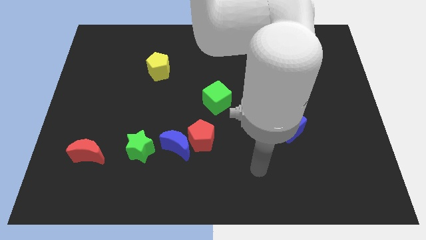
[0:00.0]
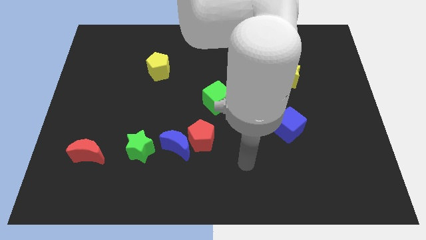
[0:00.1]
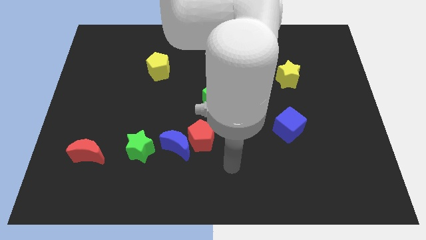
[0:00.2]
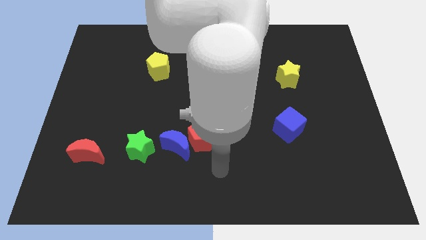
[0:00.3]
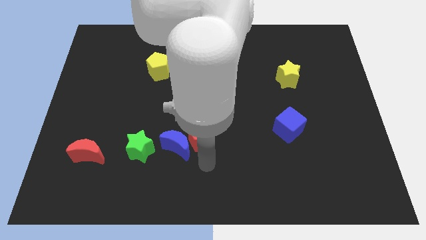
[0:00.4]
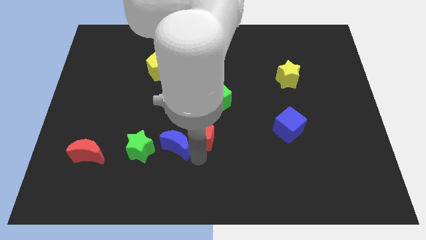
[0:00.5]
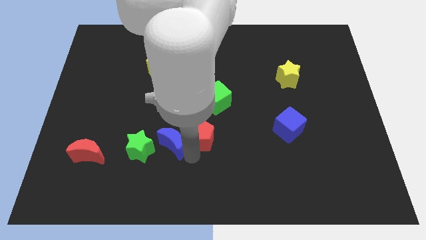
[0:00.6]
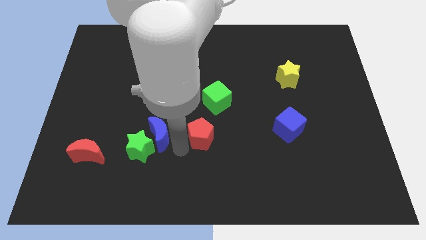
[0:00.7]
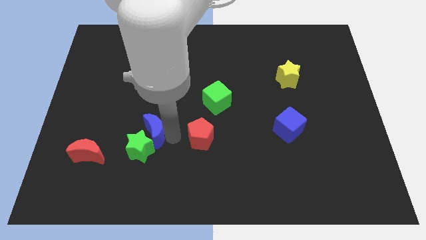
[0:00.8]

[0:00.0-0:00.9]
pull the red pentagon apart from the blue moon

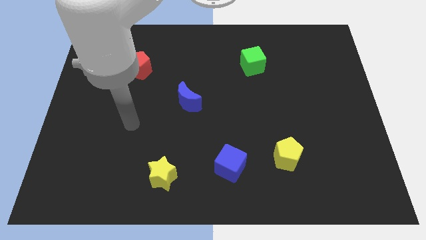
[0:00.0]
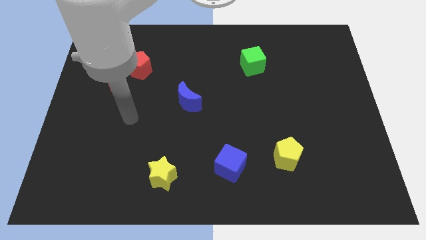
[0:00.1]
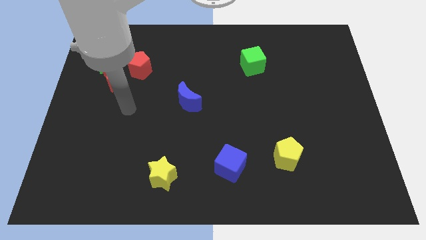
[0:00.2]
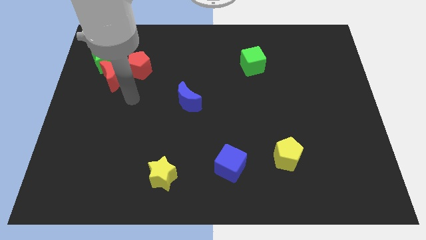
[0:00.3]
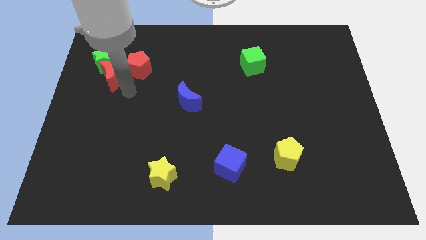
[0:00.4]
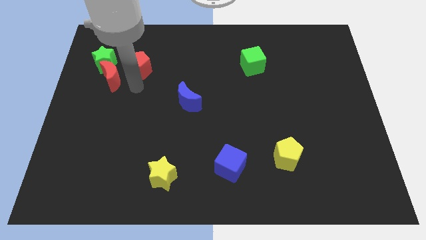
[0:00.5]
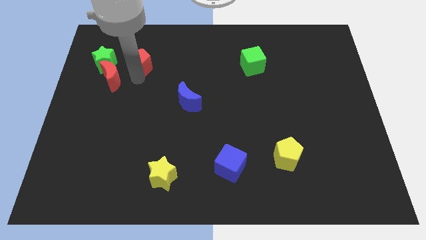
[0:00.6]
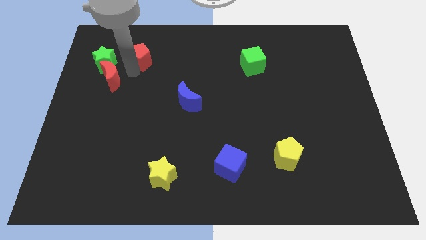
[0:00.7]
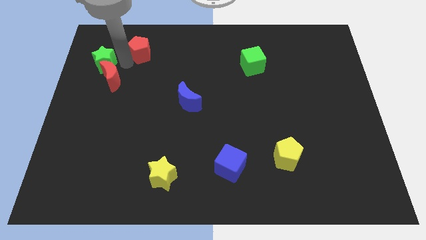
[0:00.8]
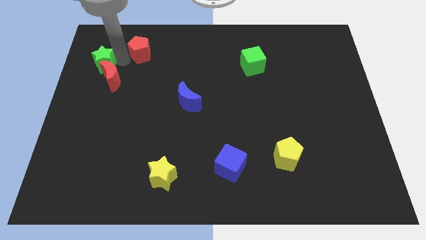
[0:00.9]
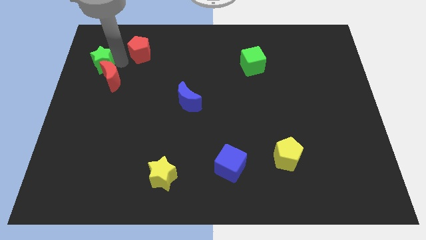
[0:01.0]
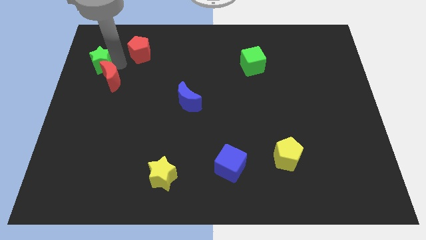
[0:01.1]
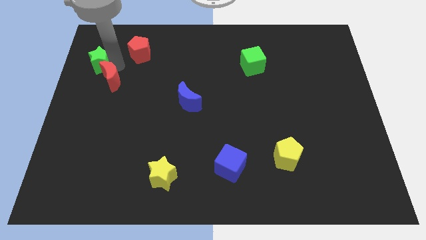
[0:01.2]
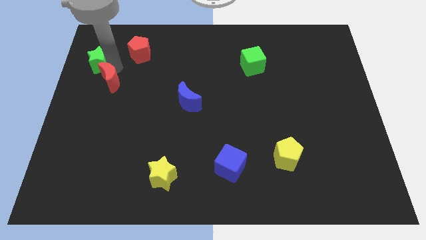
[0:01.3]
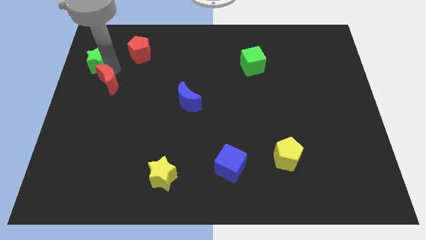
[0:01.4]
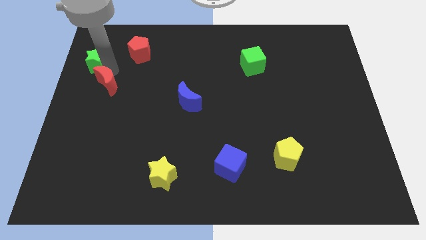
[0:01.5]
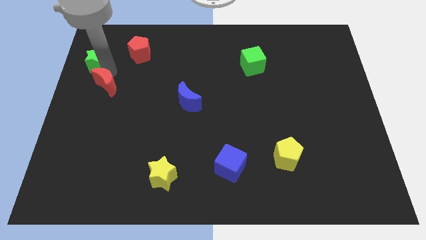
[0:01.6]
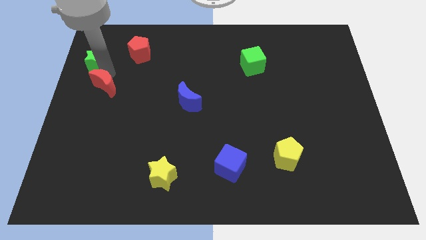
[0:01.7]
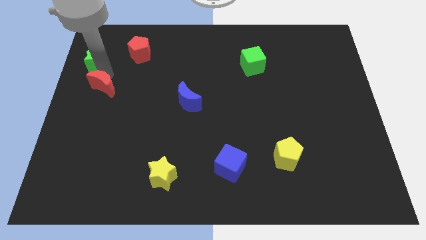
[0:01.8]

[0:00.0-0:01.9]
move the red moon away from the green star and red pentagon

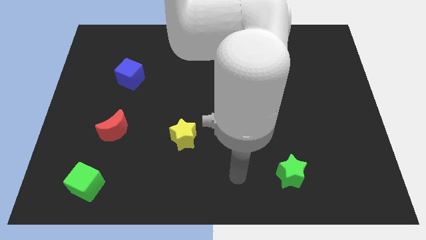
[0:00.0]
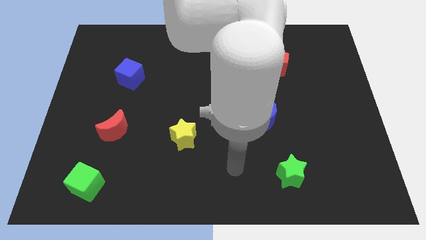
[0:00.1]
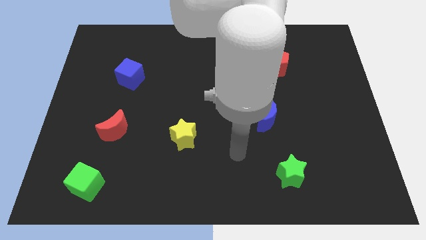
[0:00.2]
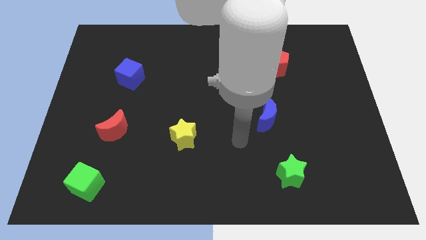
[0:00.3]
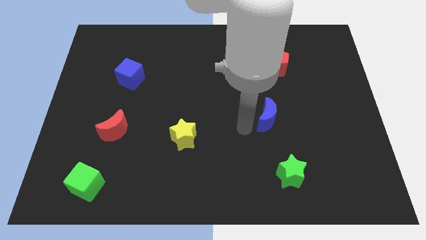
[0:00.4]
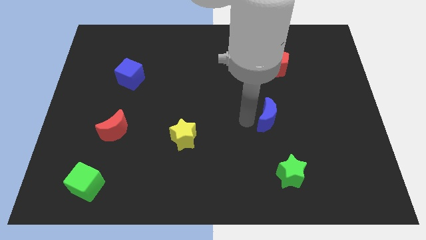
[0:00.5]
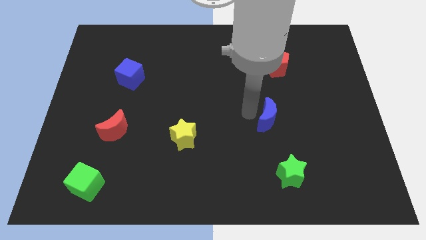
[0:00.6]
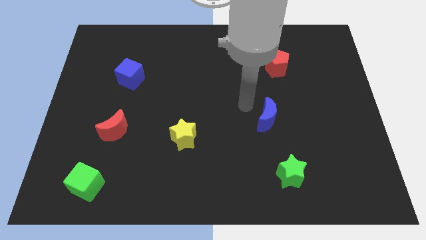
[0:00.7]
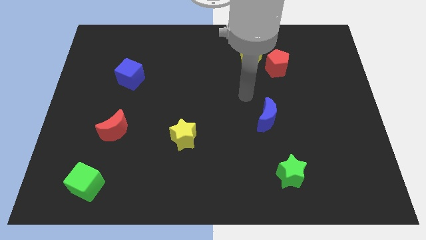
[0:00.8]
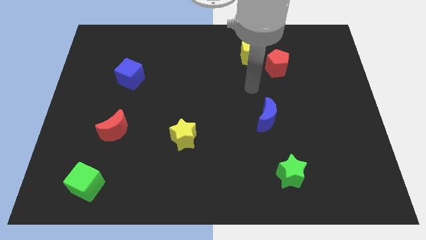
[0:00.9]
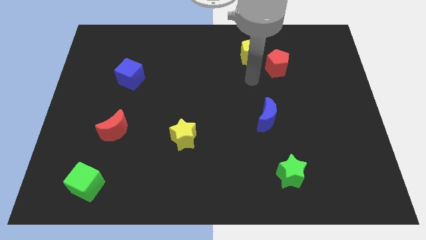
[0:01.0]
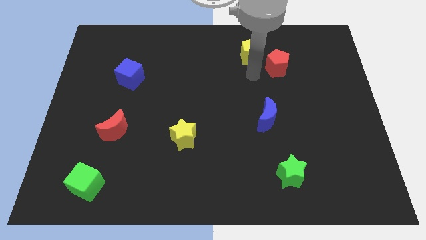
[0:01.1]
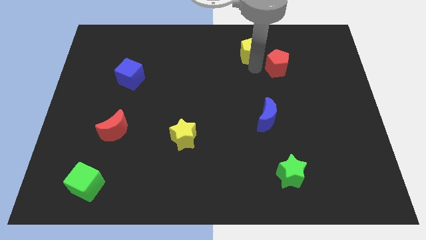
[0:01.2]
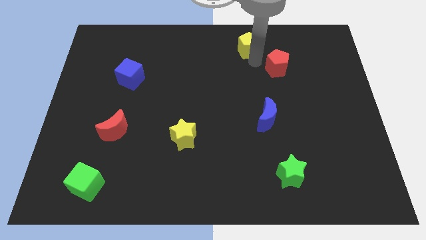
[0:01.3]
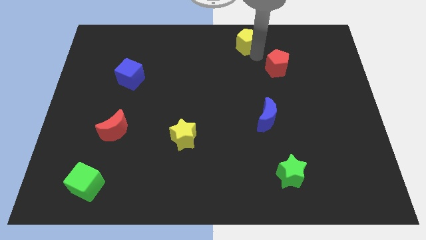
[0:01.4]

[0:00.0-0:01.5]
separate the red pentagon from the yellow pentagon

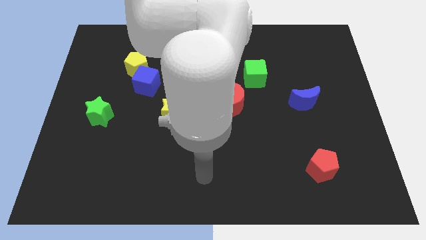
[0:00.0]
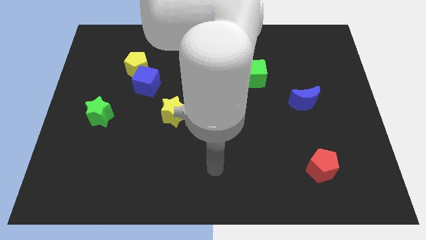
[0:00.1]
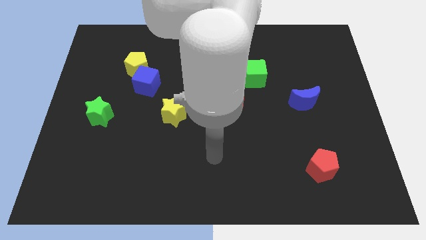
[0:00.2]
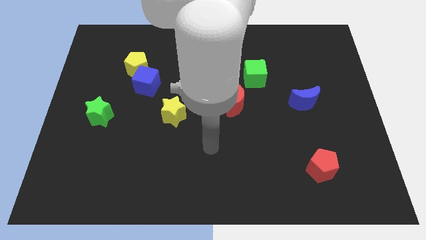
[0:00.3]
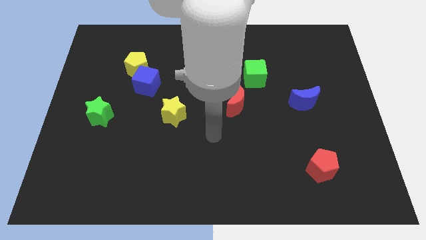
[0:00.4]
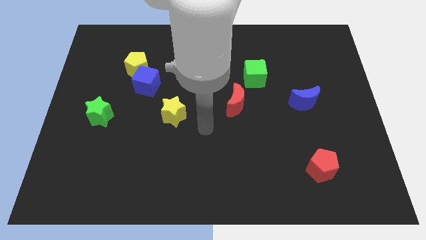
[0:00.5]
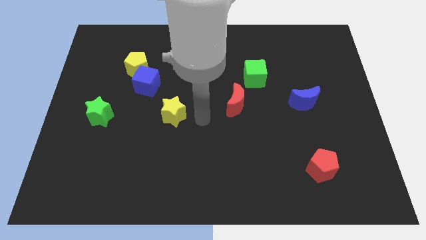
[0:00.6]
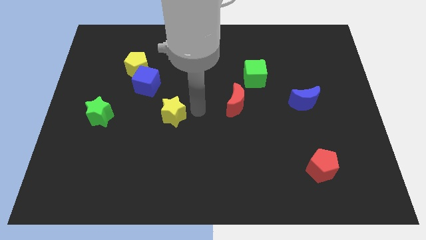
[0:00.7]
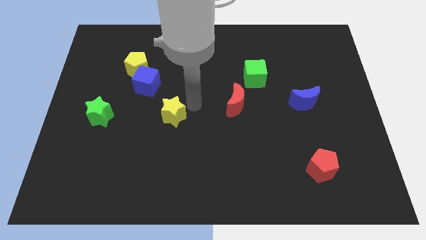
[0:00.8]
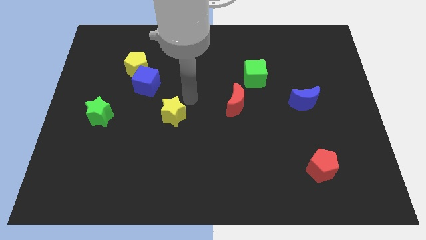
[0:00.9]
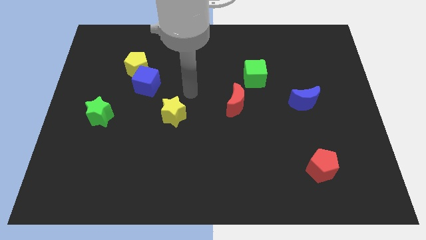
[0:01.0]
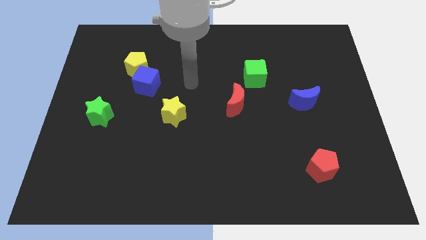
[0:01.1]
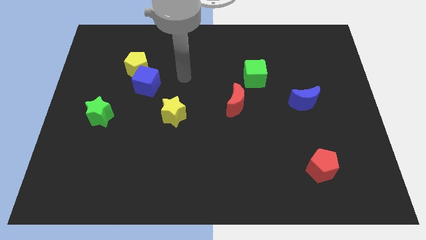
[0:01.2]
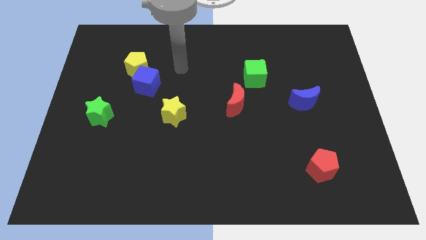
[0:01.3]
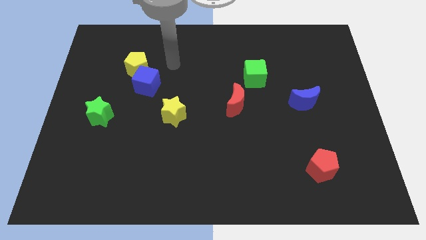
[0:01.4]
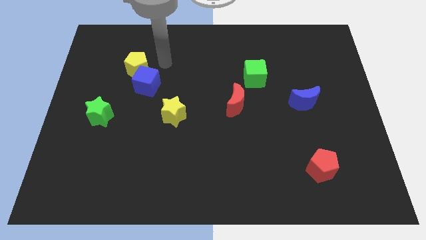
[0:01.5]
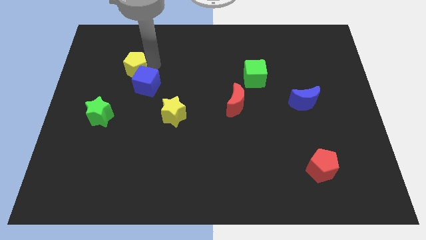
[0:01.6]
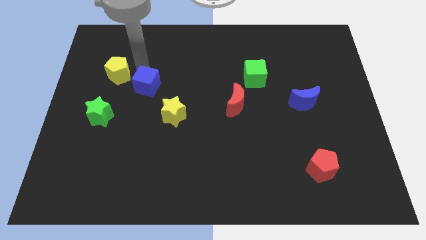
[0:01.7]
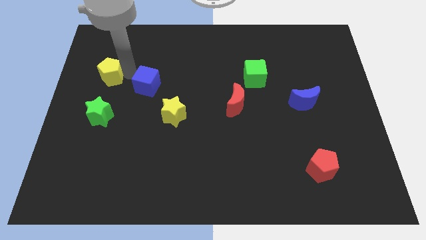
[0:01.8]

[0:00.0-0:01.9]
pull the blue cube apart from the yellow pentagon

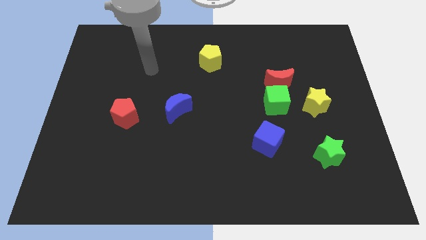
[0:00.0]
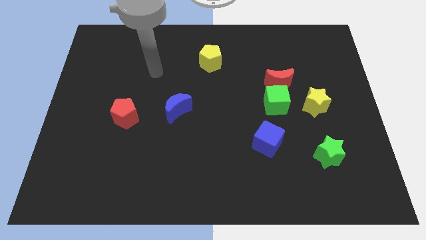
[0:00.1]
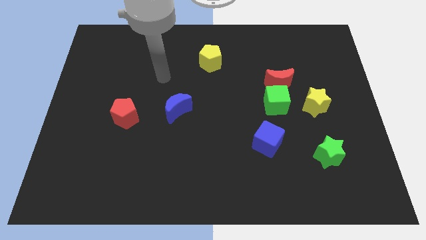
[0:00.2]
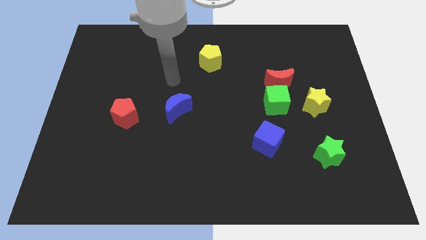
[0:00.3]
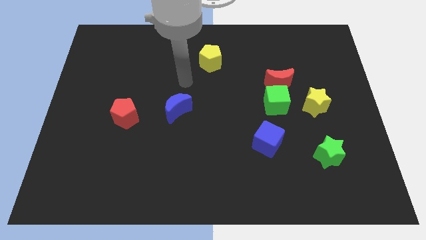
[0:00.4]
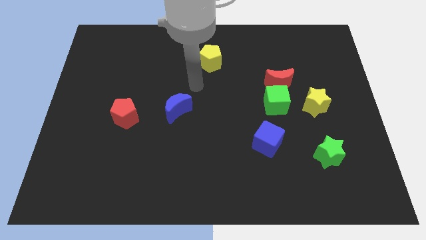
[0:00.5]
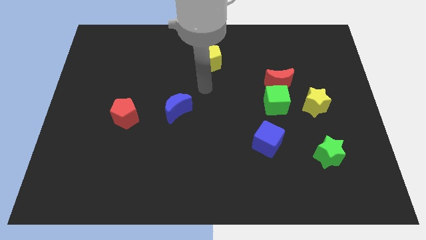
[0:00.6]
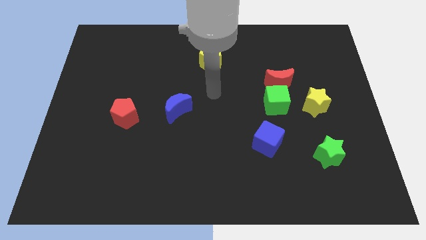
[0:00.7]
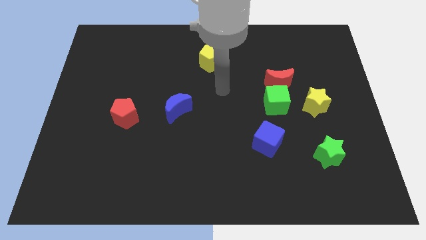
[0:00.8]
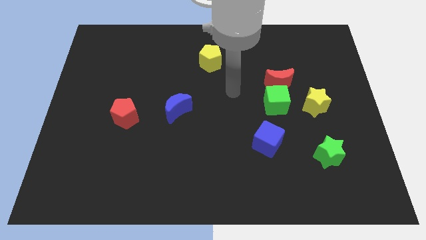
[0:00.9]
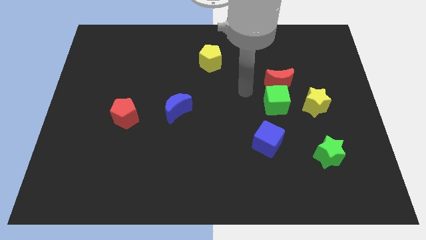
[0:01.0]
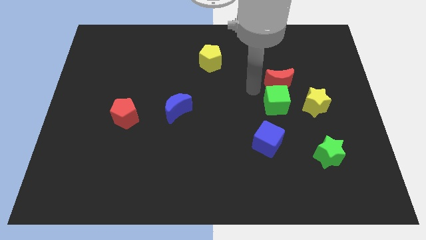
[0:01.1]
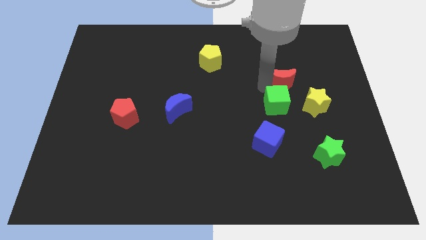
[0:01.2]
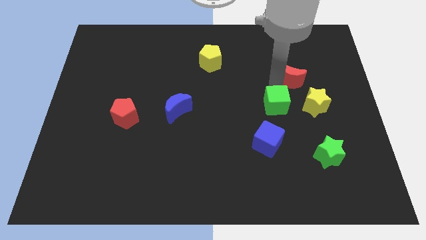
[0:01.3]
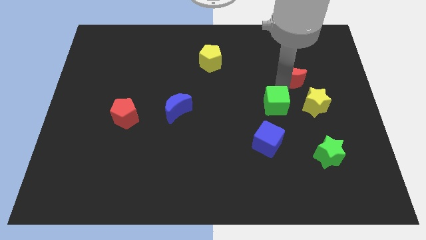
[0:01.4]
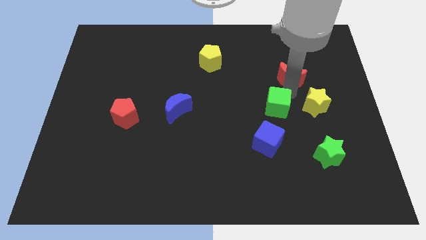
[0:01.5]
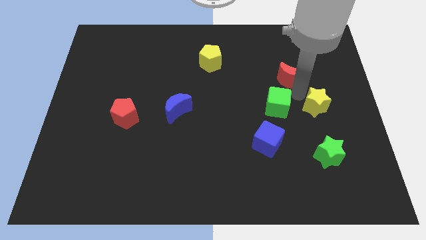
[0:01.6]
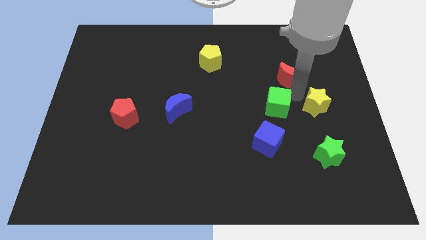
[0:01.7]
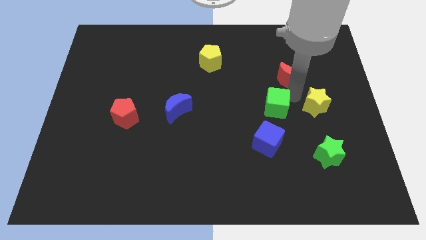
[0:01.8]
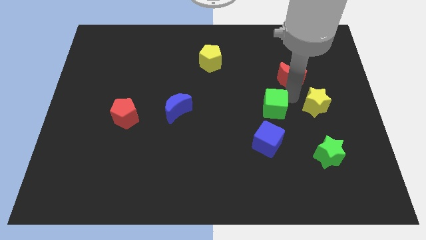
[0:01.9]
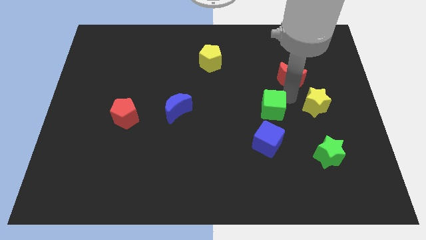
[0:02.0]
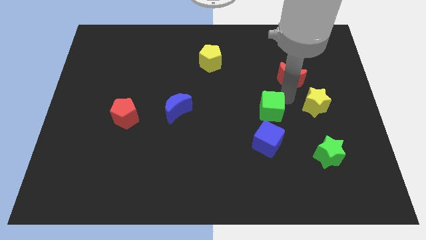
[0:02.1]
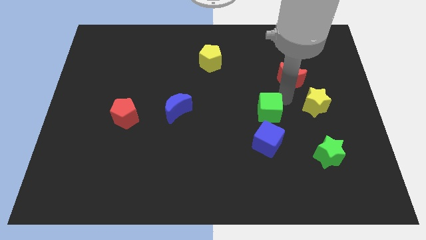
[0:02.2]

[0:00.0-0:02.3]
separate the green cube from the red moon and yellow star

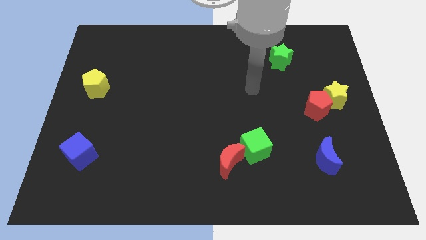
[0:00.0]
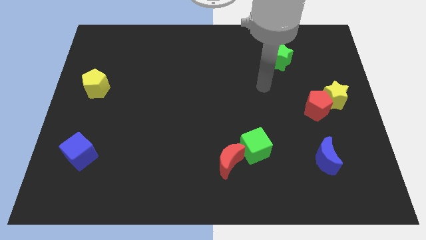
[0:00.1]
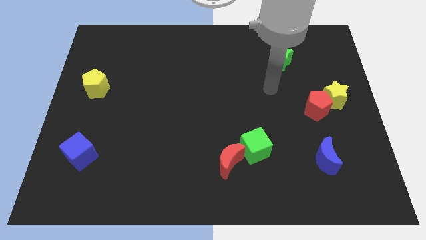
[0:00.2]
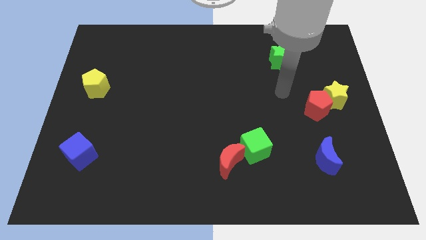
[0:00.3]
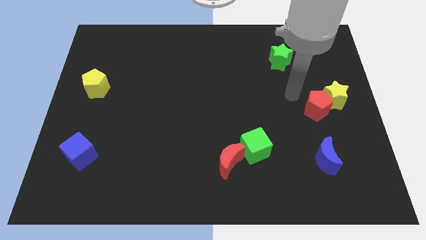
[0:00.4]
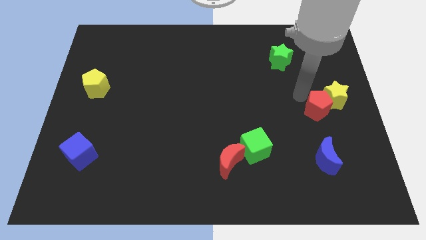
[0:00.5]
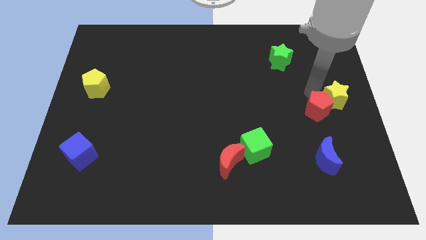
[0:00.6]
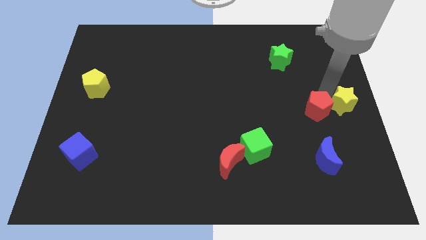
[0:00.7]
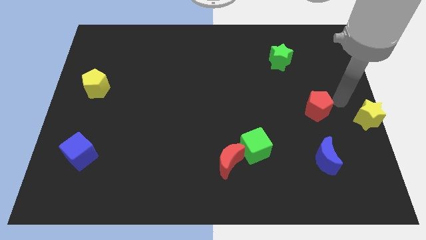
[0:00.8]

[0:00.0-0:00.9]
move the red pentagon away from the yellow star
